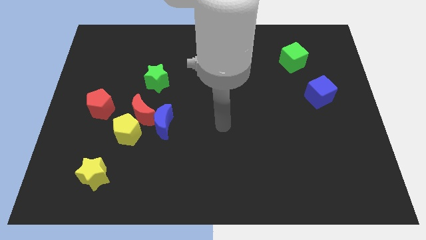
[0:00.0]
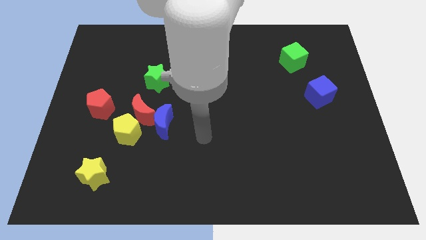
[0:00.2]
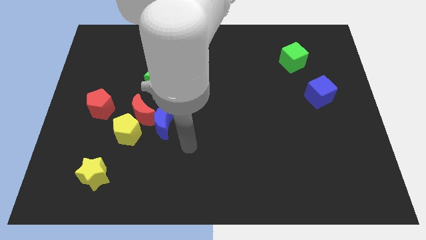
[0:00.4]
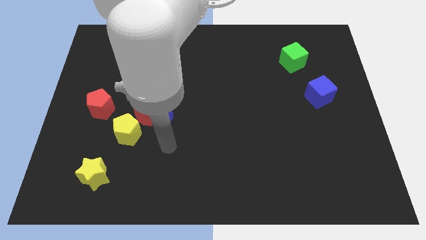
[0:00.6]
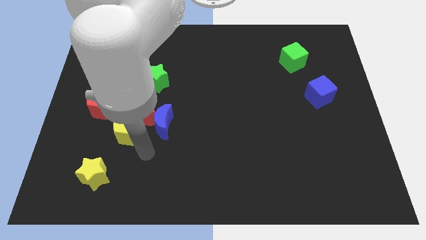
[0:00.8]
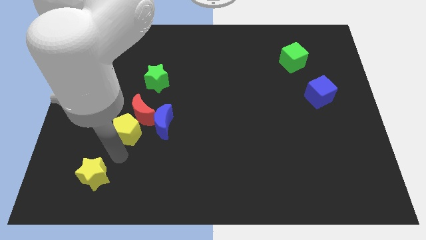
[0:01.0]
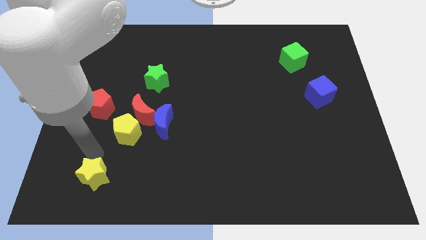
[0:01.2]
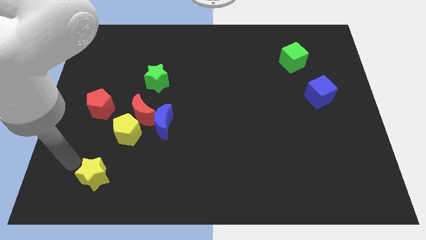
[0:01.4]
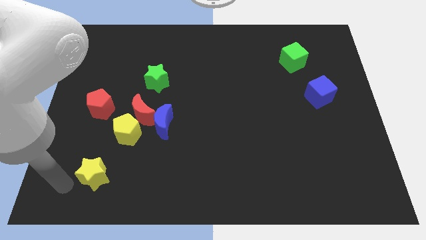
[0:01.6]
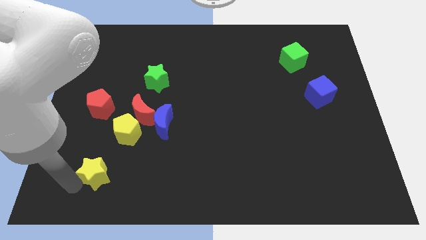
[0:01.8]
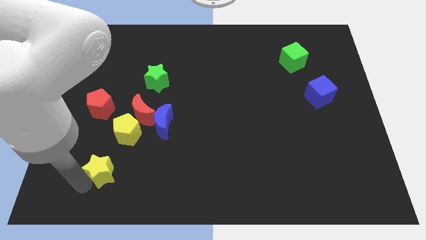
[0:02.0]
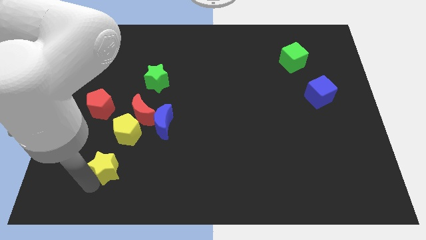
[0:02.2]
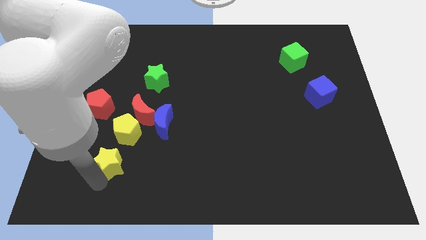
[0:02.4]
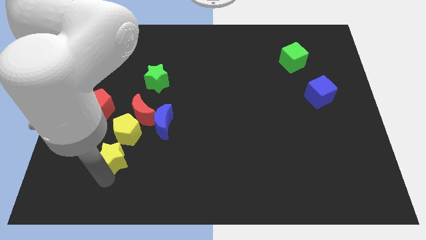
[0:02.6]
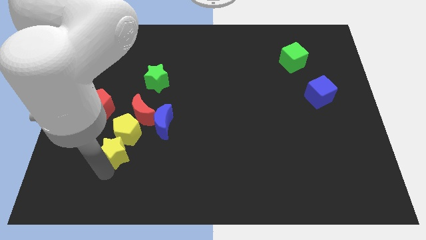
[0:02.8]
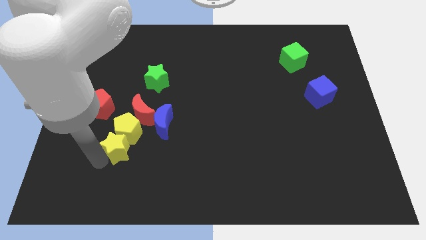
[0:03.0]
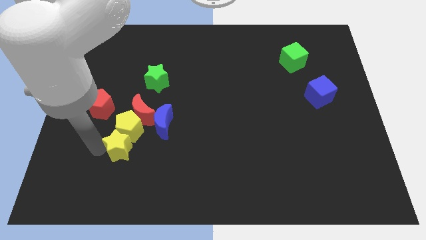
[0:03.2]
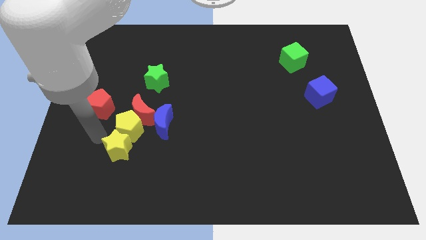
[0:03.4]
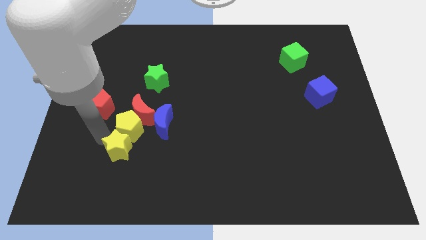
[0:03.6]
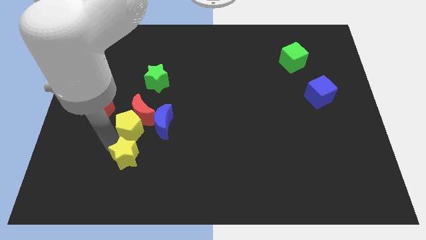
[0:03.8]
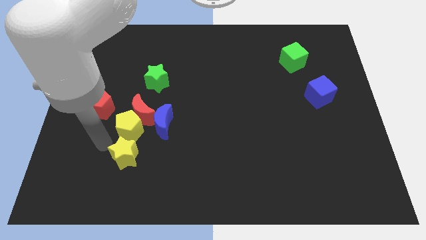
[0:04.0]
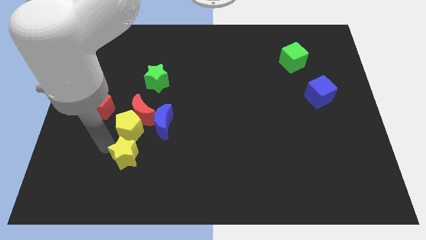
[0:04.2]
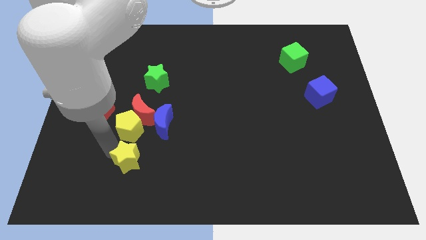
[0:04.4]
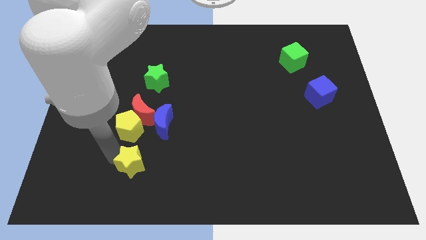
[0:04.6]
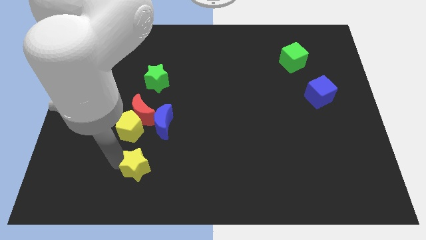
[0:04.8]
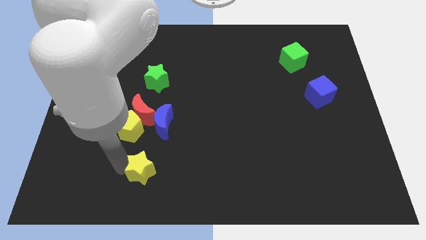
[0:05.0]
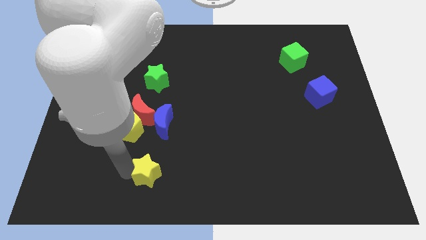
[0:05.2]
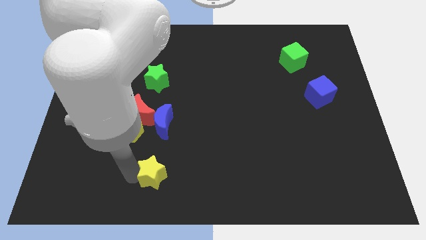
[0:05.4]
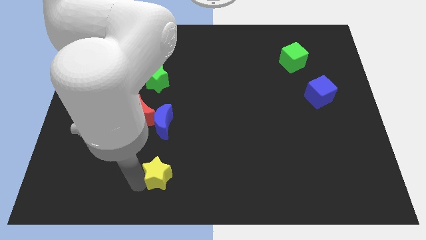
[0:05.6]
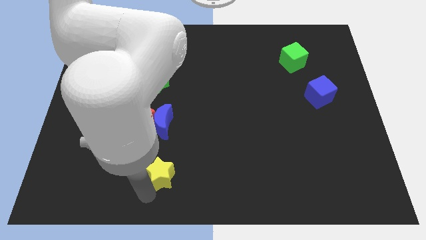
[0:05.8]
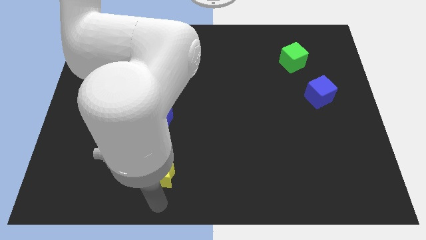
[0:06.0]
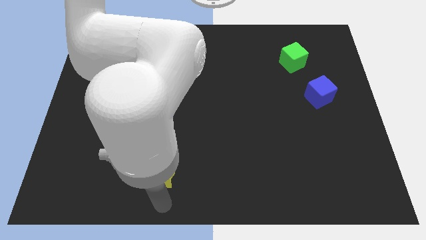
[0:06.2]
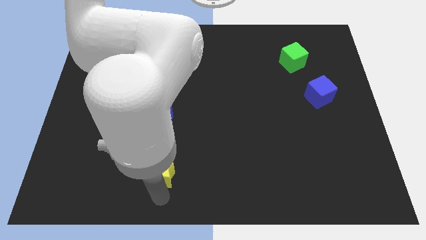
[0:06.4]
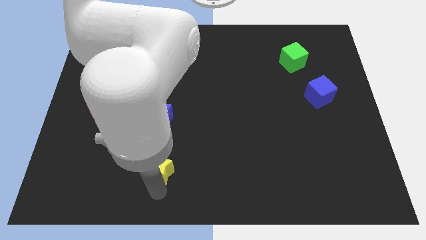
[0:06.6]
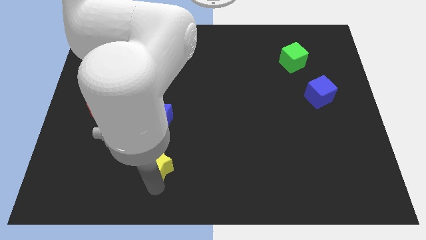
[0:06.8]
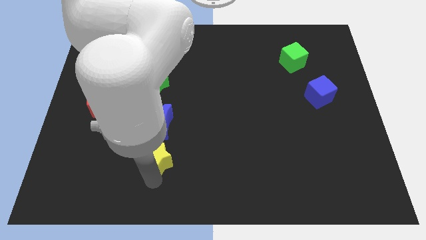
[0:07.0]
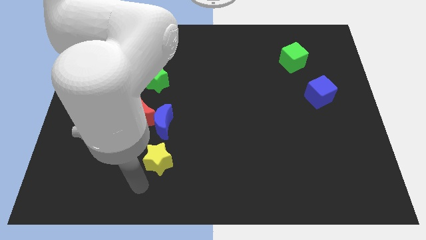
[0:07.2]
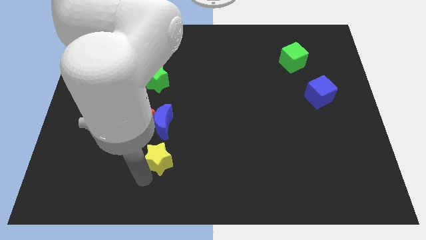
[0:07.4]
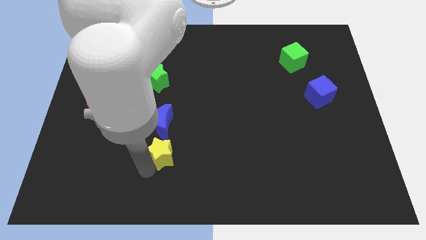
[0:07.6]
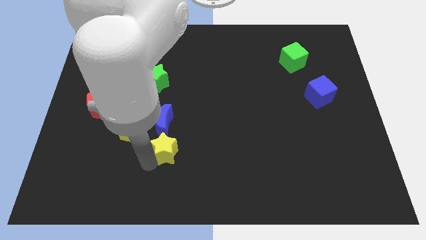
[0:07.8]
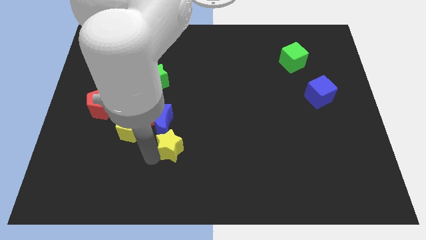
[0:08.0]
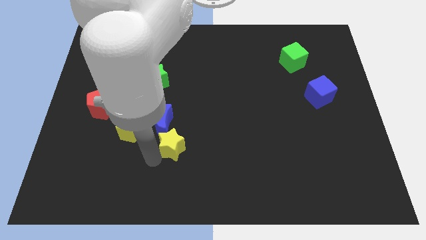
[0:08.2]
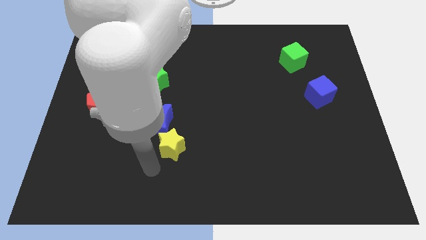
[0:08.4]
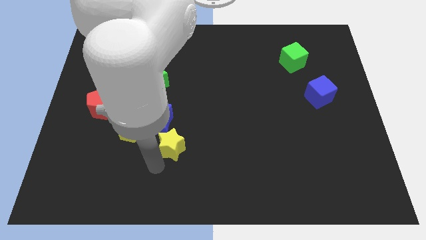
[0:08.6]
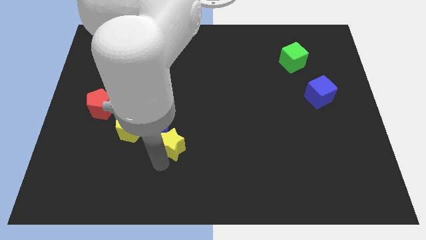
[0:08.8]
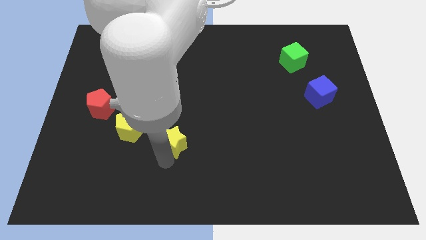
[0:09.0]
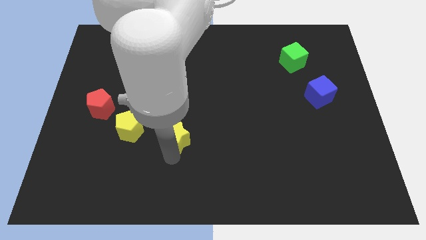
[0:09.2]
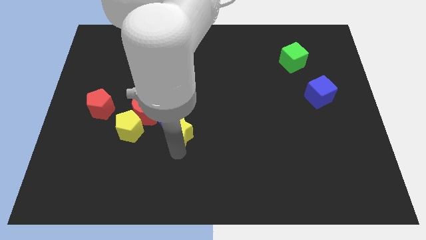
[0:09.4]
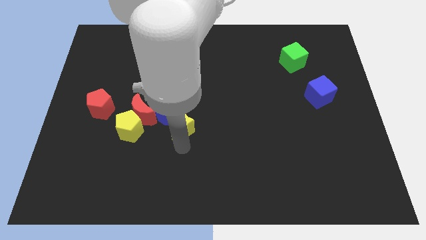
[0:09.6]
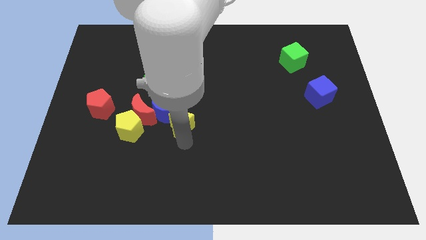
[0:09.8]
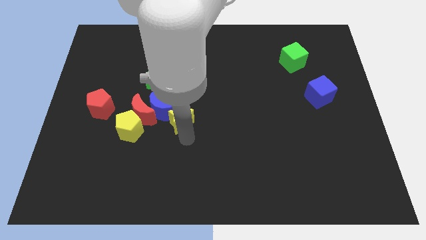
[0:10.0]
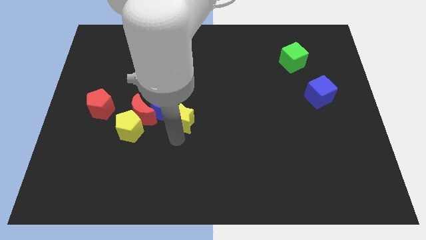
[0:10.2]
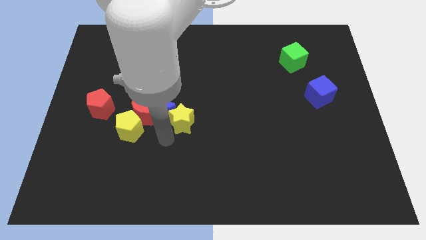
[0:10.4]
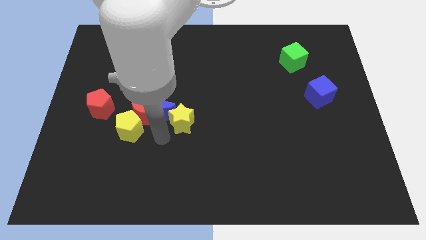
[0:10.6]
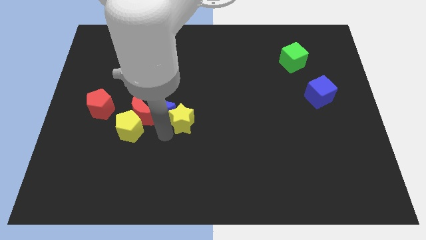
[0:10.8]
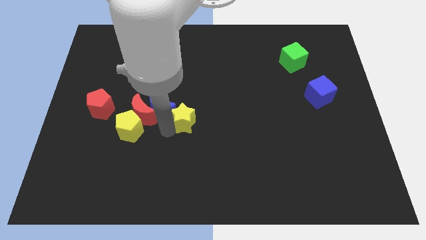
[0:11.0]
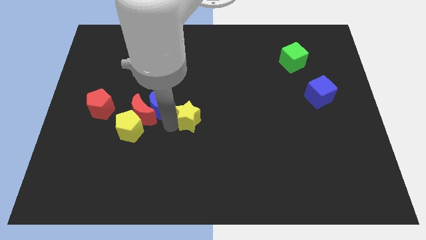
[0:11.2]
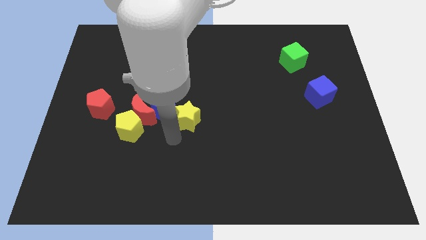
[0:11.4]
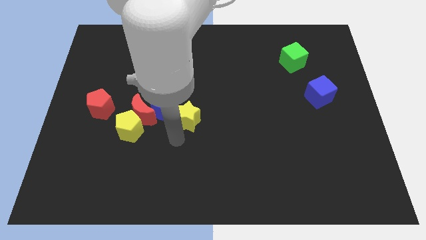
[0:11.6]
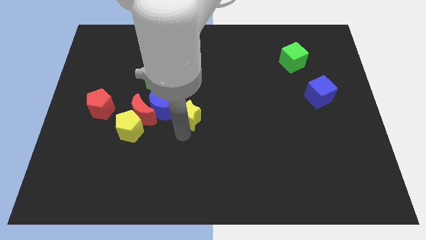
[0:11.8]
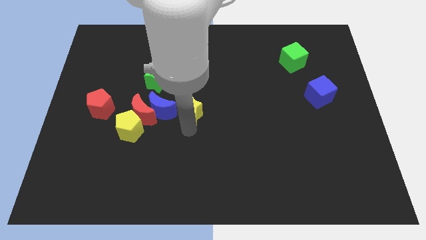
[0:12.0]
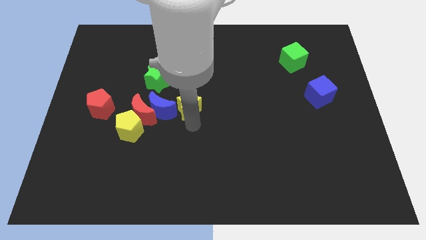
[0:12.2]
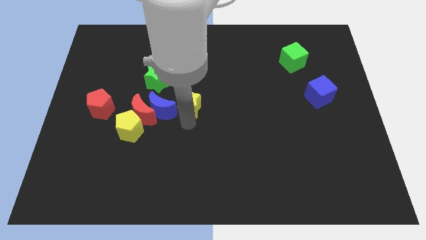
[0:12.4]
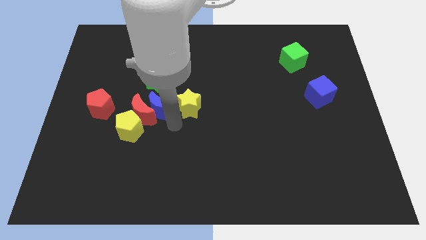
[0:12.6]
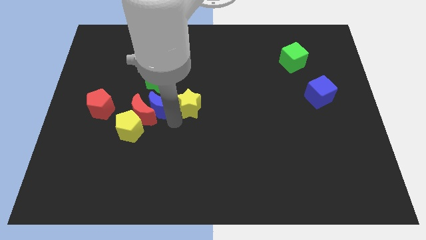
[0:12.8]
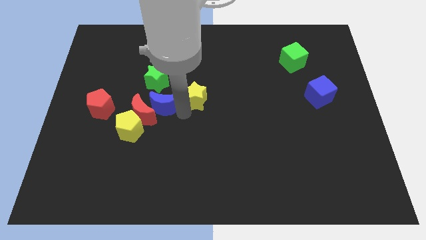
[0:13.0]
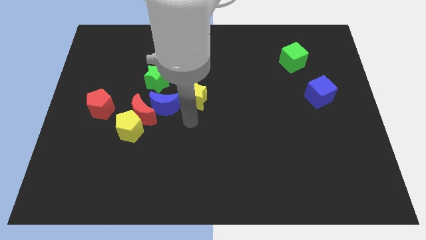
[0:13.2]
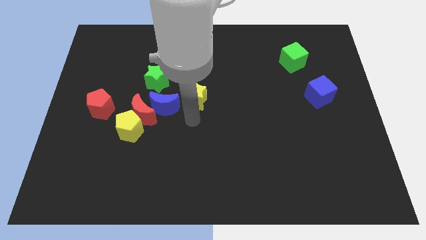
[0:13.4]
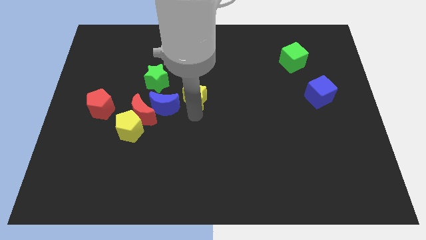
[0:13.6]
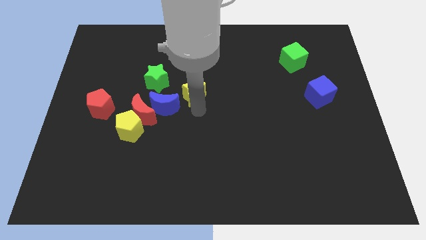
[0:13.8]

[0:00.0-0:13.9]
put the yellow star right of the green star
